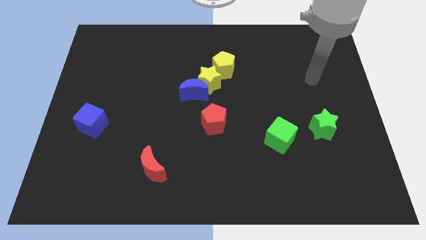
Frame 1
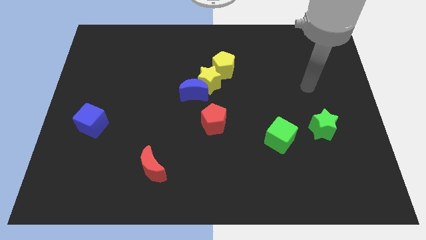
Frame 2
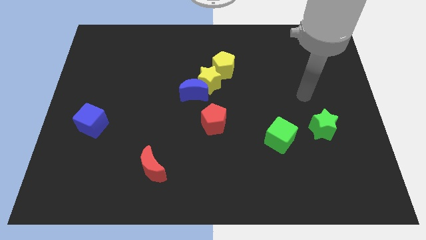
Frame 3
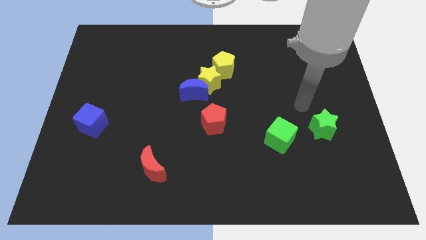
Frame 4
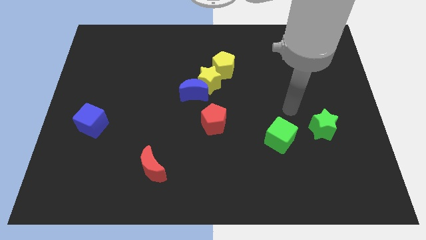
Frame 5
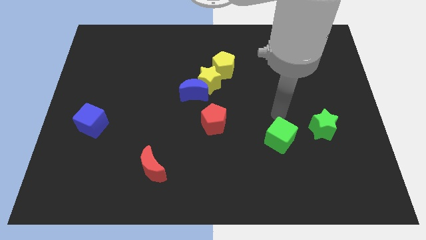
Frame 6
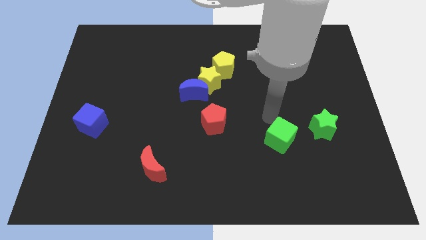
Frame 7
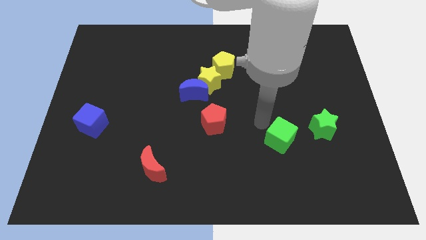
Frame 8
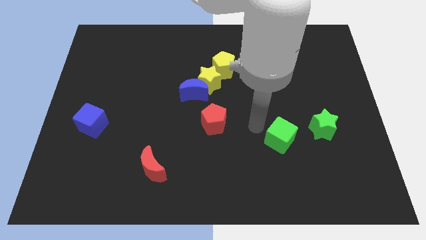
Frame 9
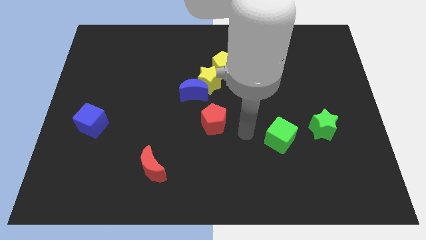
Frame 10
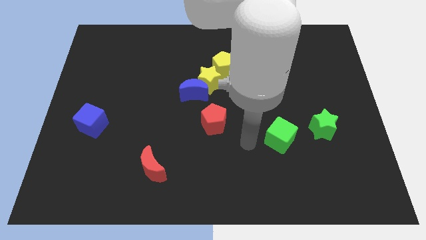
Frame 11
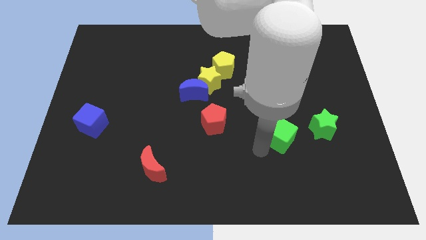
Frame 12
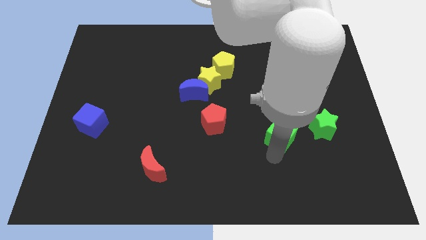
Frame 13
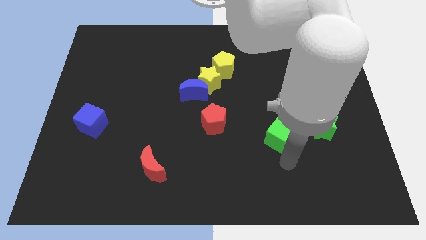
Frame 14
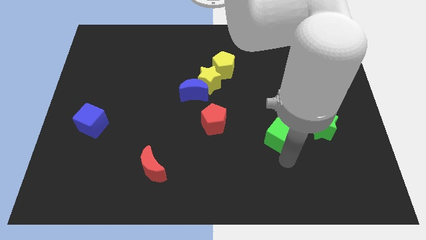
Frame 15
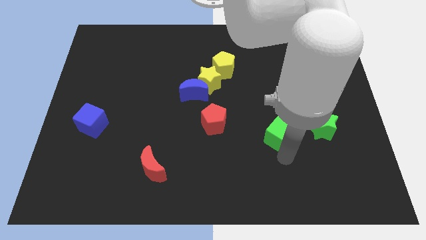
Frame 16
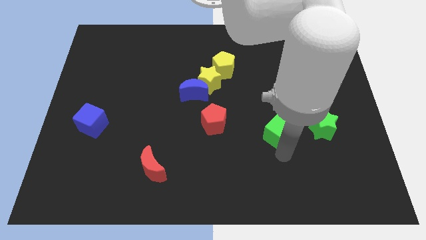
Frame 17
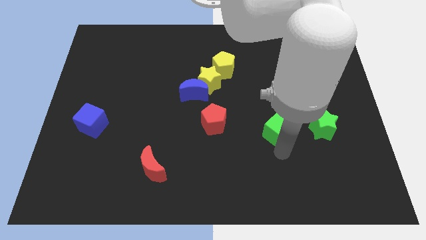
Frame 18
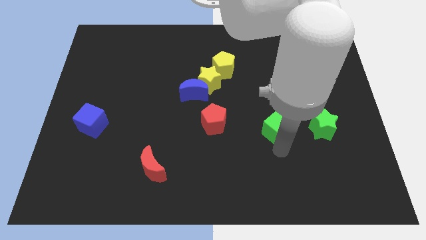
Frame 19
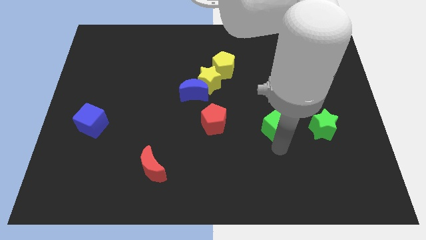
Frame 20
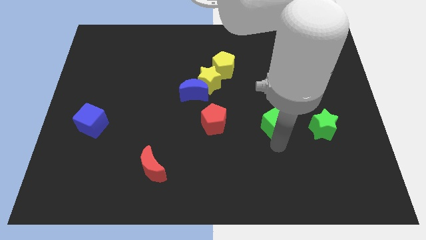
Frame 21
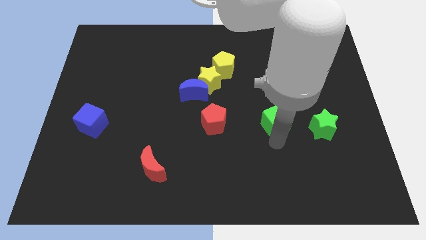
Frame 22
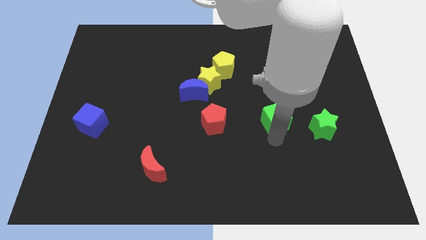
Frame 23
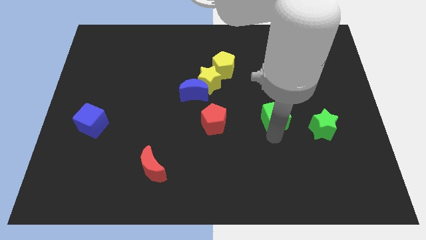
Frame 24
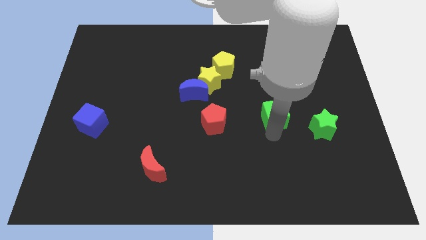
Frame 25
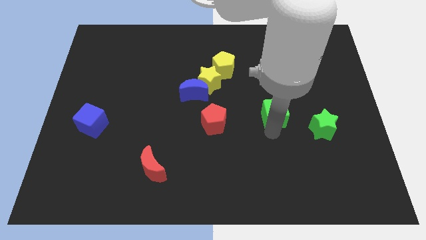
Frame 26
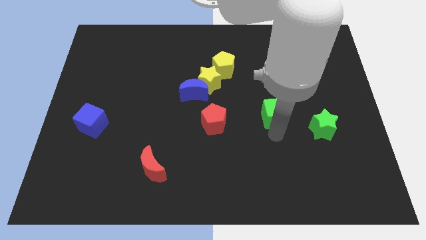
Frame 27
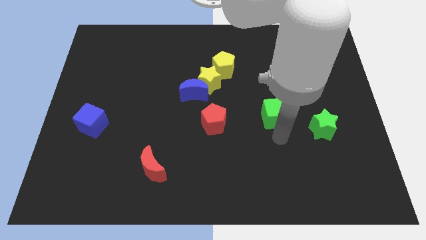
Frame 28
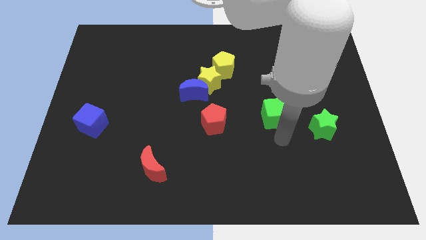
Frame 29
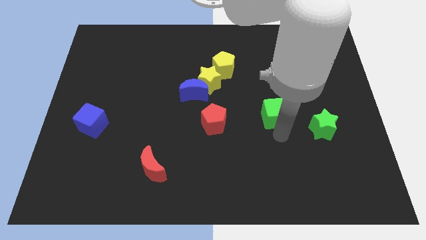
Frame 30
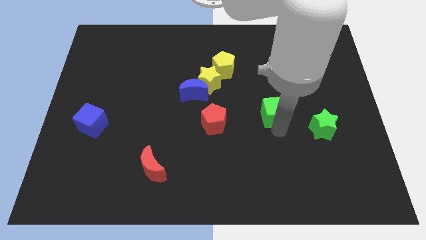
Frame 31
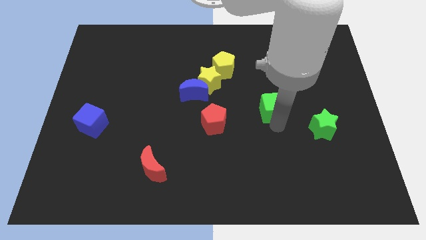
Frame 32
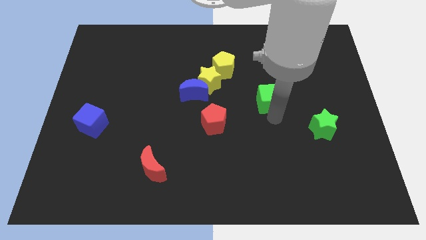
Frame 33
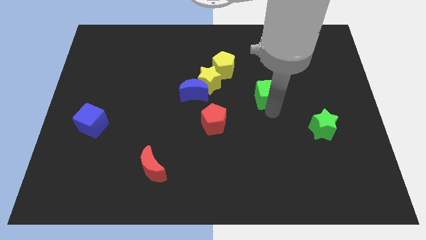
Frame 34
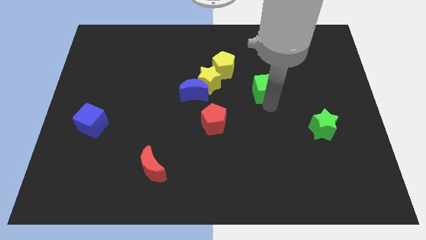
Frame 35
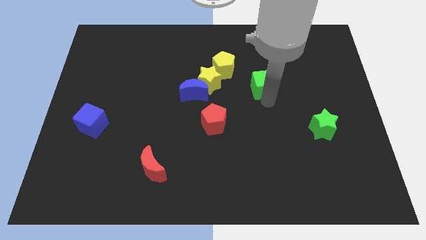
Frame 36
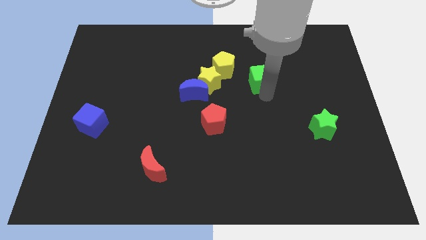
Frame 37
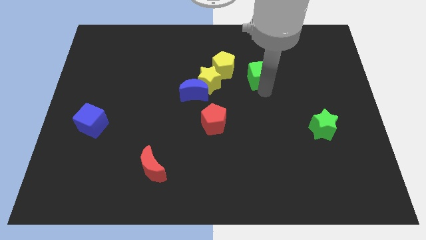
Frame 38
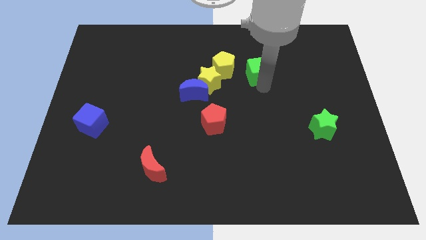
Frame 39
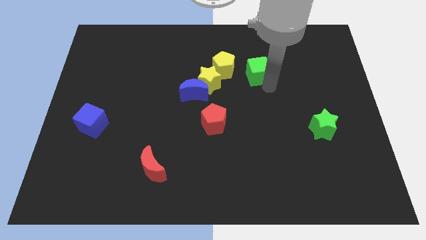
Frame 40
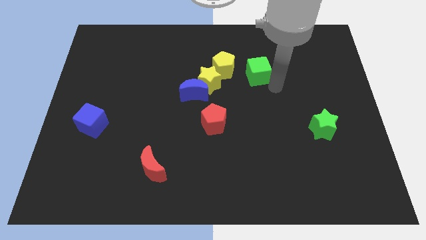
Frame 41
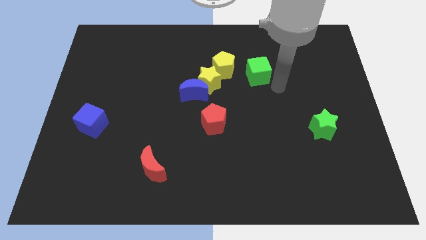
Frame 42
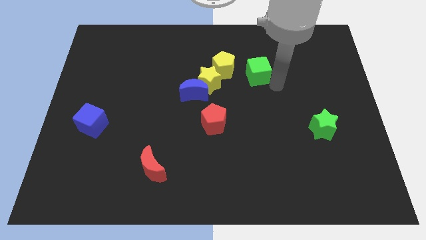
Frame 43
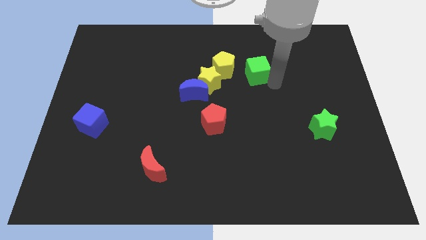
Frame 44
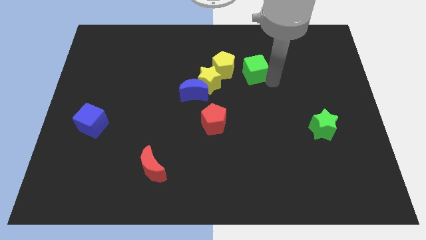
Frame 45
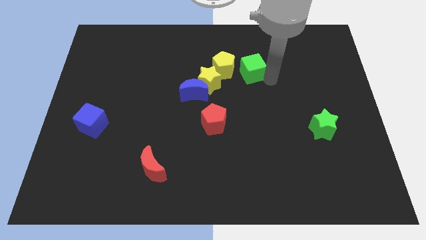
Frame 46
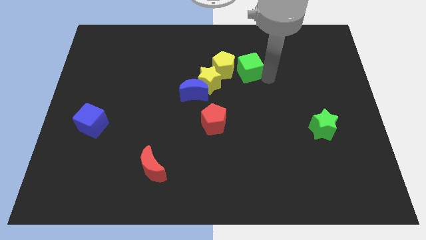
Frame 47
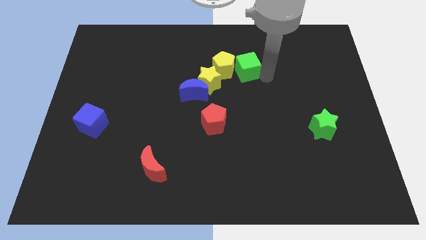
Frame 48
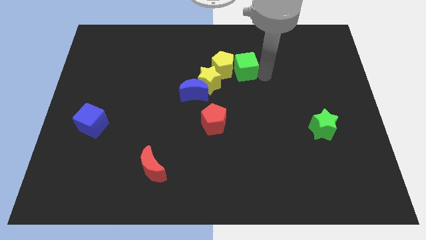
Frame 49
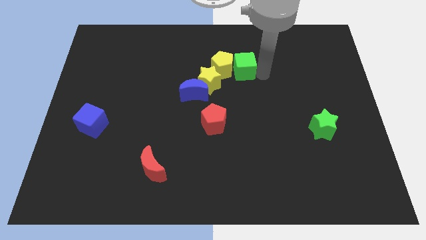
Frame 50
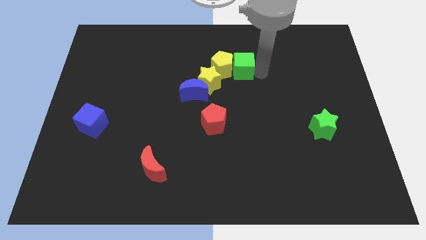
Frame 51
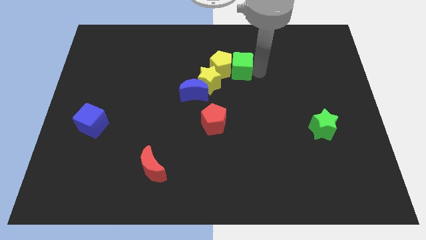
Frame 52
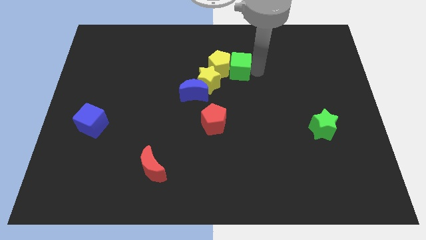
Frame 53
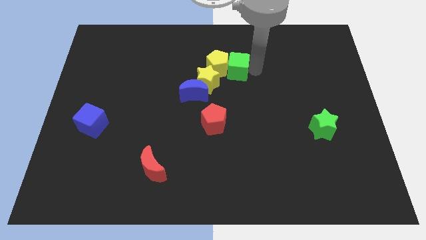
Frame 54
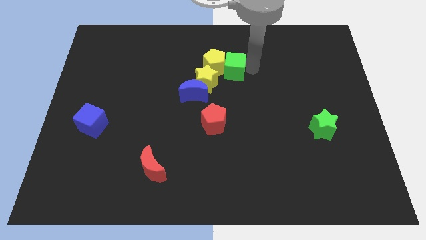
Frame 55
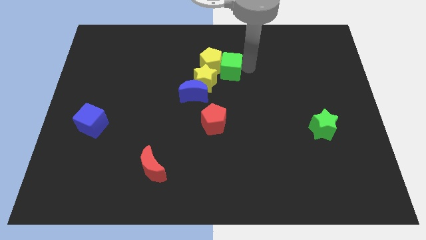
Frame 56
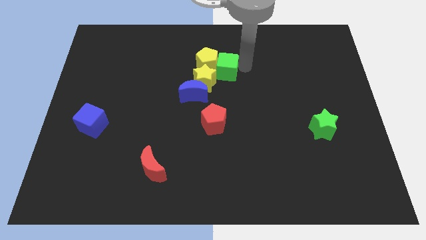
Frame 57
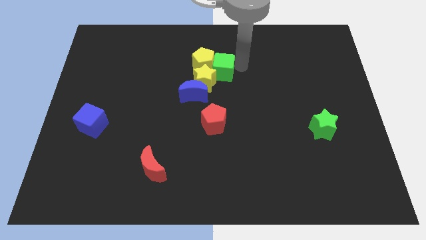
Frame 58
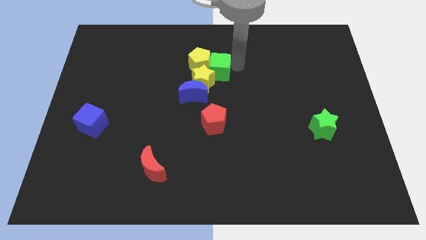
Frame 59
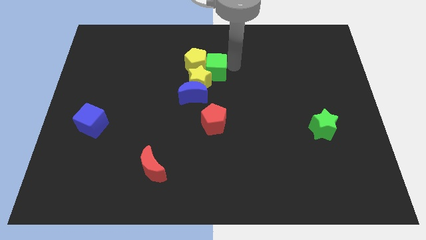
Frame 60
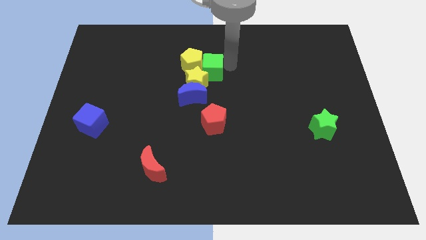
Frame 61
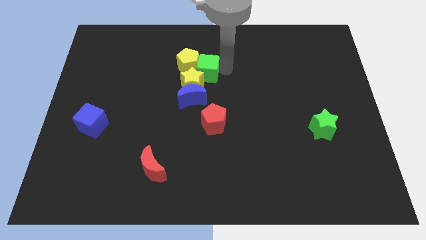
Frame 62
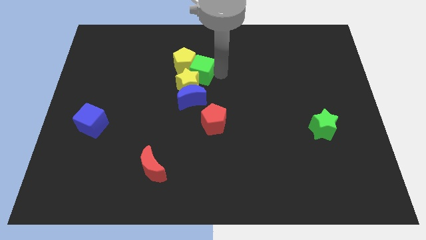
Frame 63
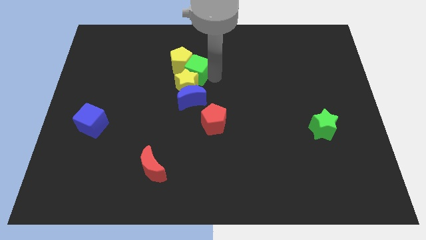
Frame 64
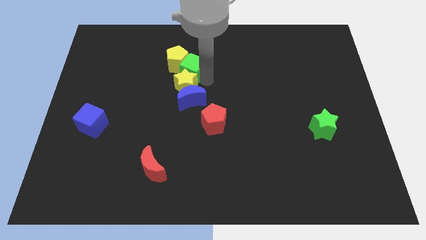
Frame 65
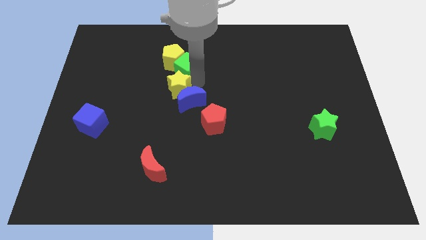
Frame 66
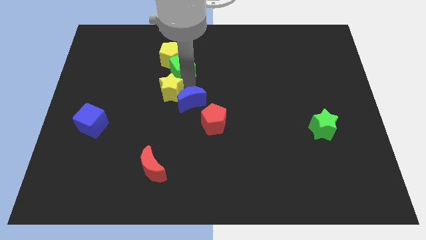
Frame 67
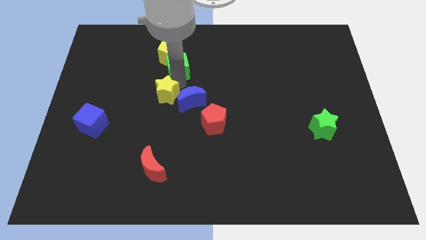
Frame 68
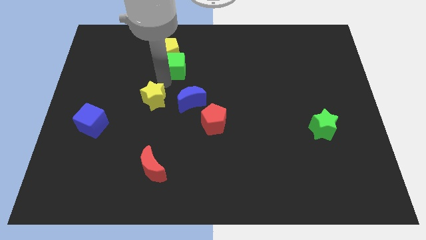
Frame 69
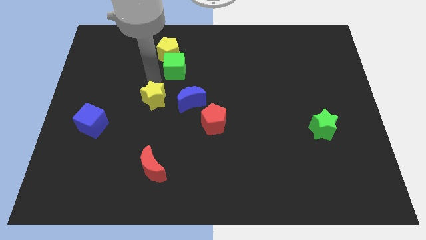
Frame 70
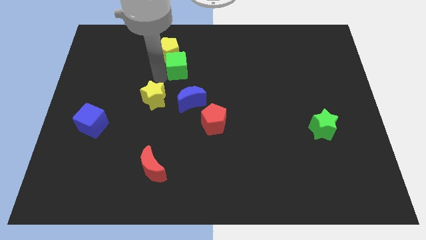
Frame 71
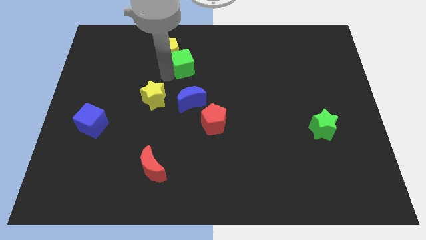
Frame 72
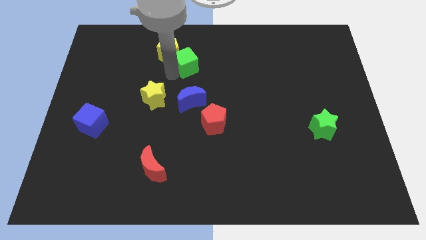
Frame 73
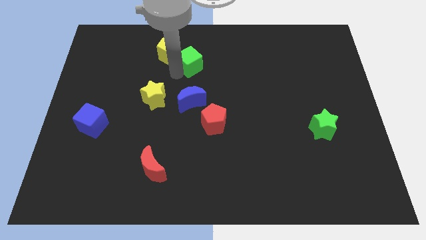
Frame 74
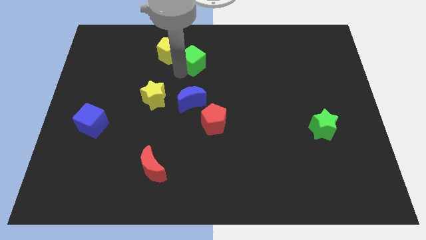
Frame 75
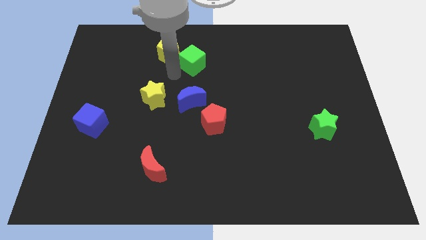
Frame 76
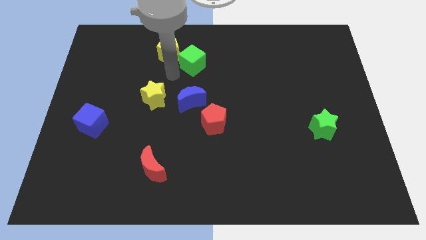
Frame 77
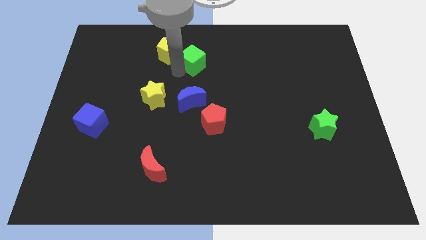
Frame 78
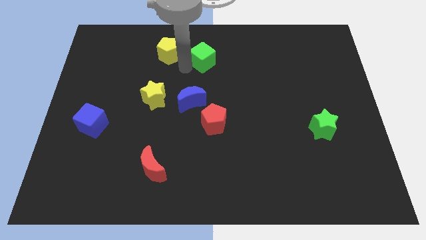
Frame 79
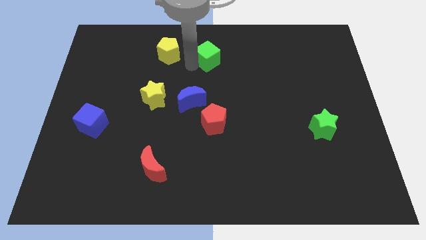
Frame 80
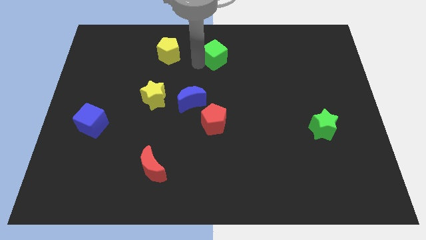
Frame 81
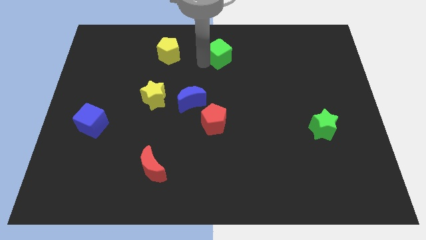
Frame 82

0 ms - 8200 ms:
slide the green cube to the top side

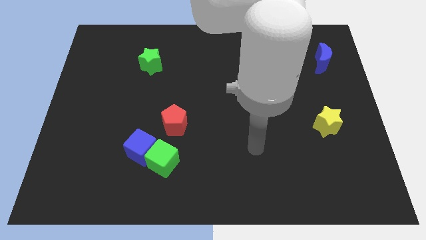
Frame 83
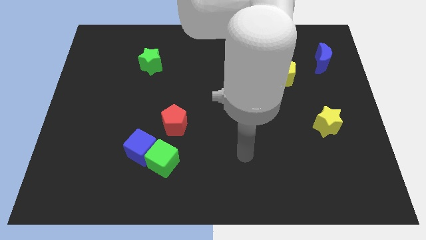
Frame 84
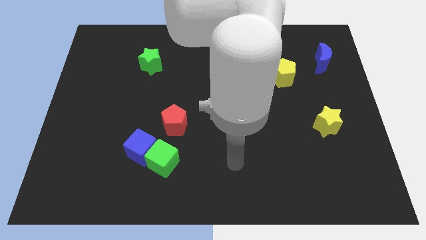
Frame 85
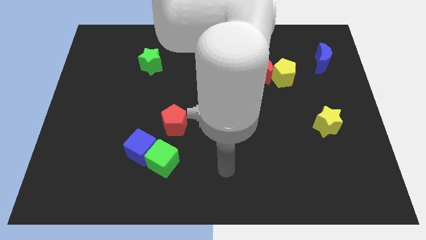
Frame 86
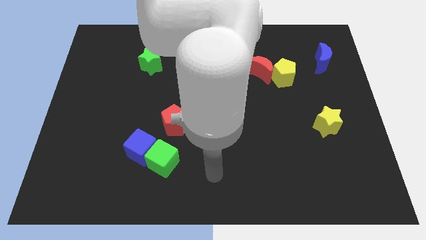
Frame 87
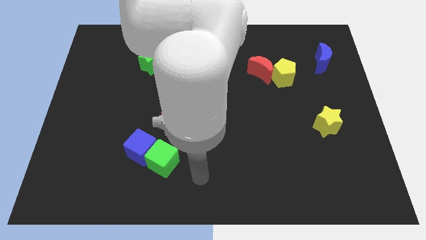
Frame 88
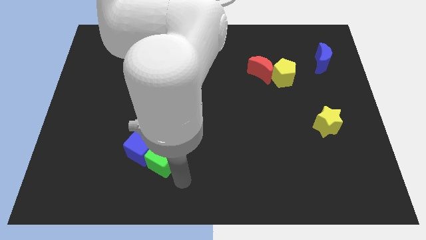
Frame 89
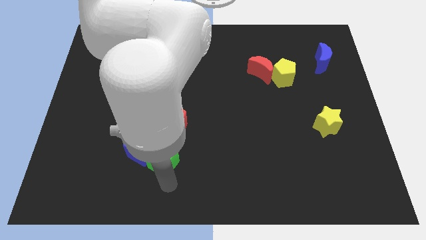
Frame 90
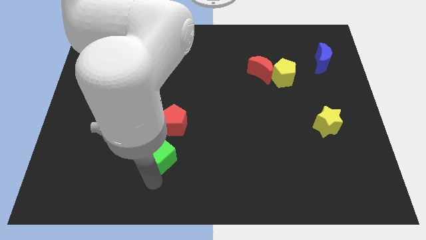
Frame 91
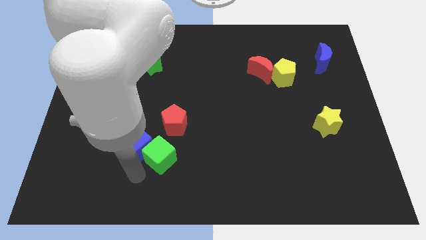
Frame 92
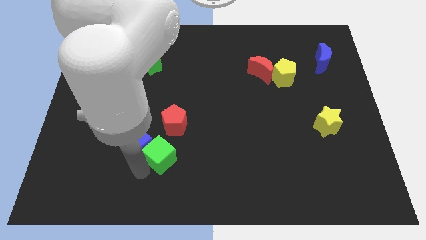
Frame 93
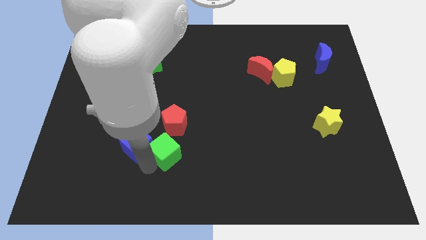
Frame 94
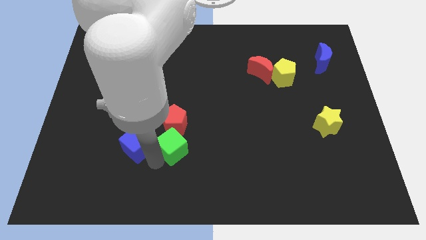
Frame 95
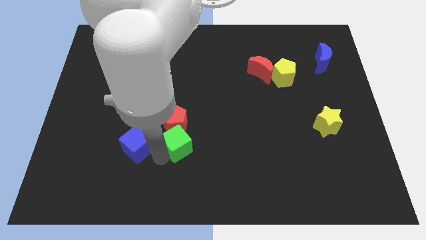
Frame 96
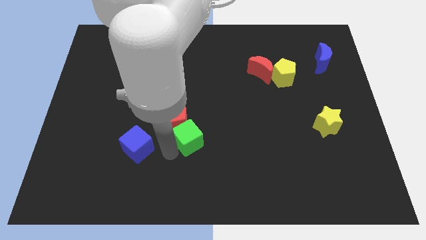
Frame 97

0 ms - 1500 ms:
slide the green cube to the middle of the board
